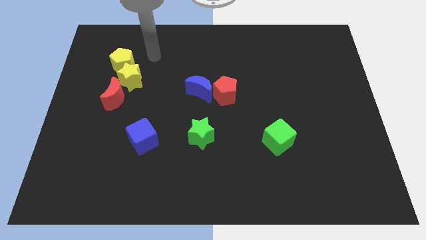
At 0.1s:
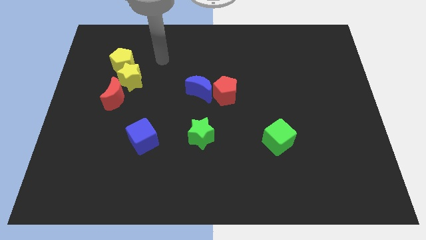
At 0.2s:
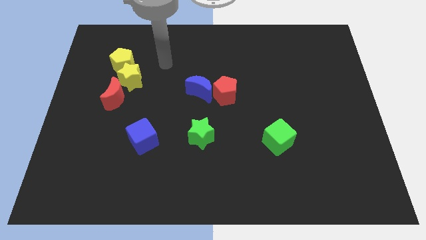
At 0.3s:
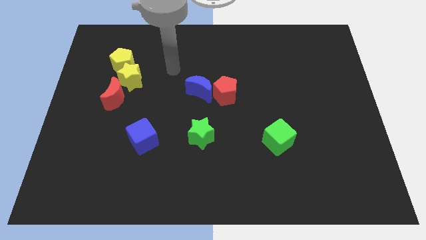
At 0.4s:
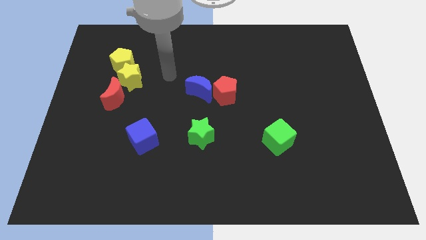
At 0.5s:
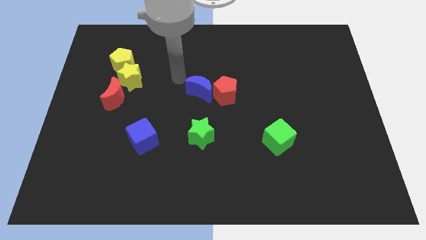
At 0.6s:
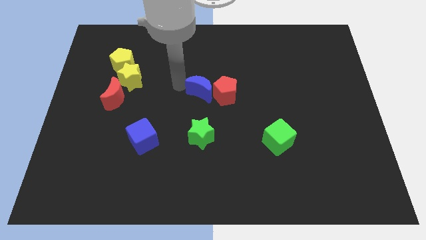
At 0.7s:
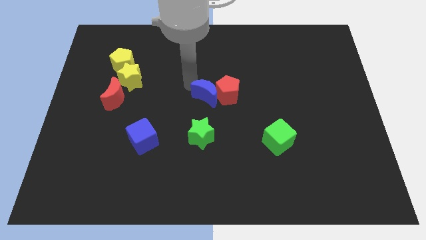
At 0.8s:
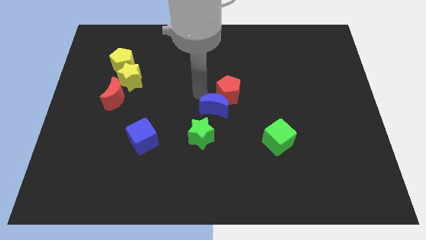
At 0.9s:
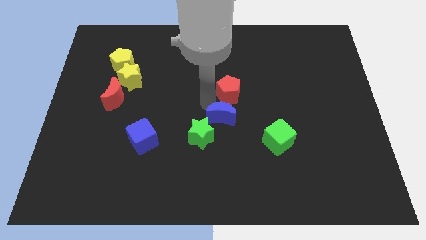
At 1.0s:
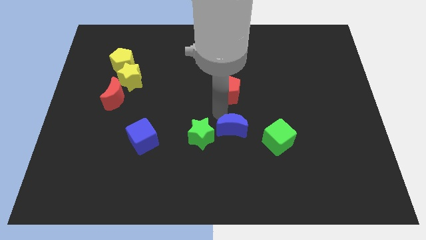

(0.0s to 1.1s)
separate the red pentagon from the blue moon

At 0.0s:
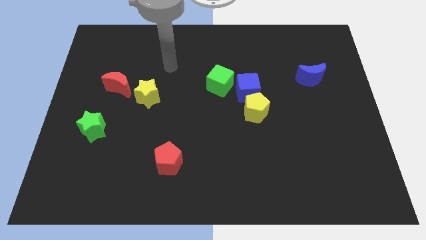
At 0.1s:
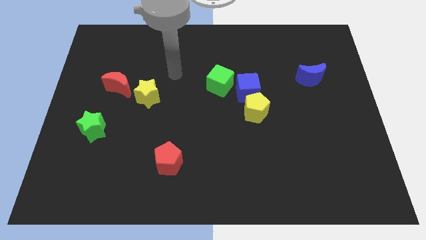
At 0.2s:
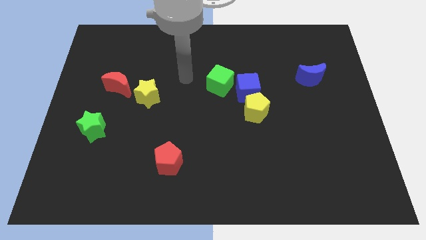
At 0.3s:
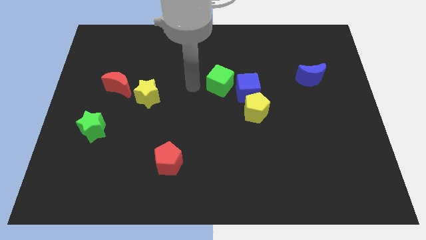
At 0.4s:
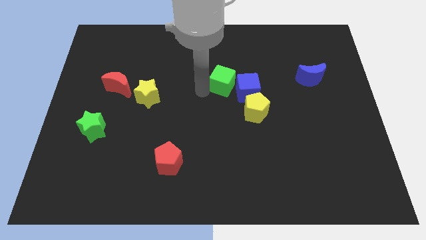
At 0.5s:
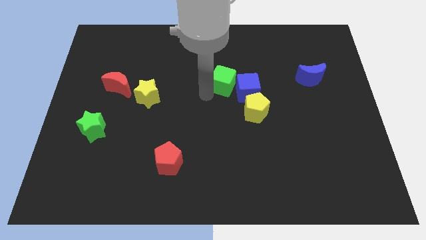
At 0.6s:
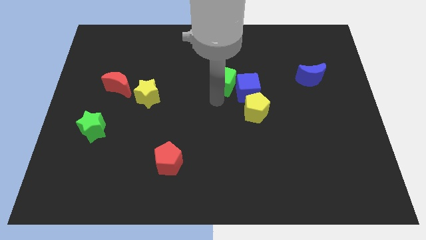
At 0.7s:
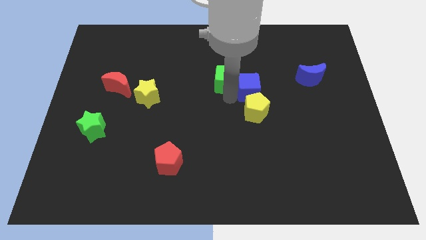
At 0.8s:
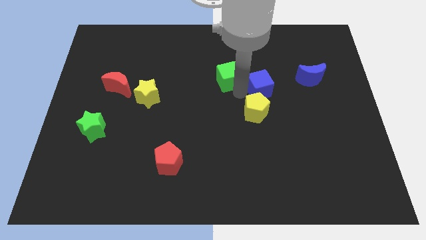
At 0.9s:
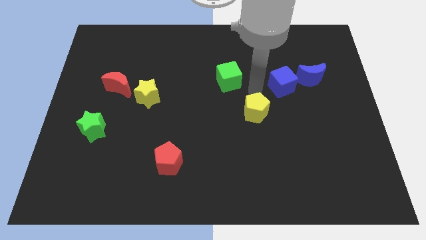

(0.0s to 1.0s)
pull the yellow pentagon apart from the blue cube

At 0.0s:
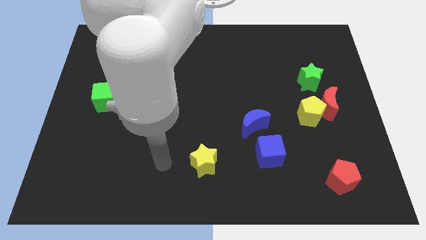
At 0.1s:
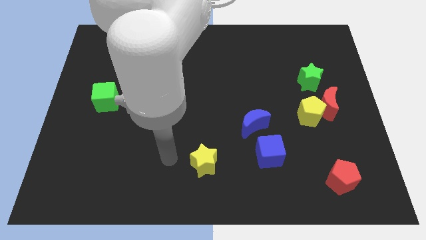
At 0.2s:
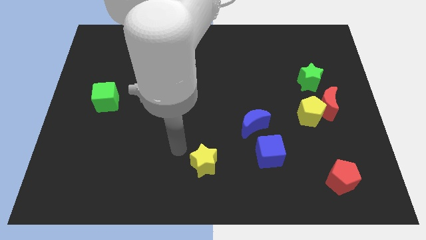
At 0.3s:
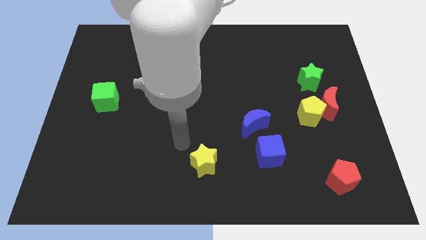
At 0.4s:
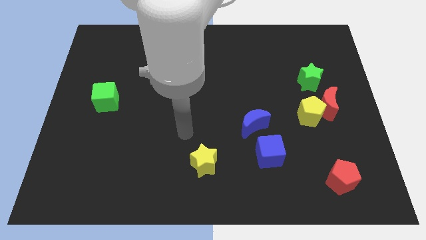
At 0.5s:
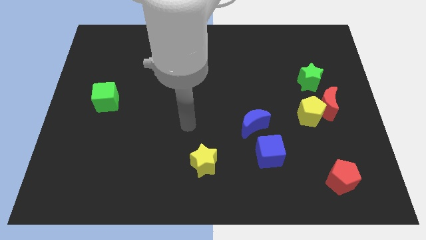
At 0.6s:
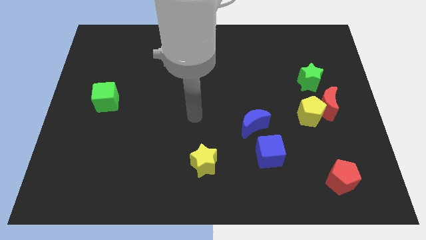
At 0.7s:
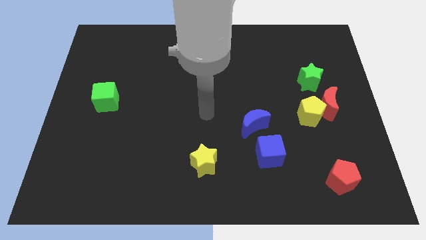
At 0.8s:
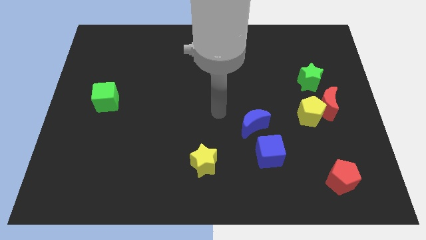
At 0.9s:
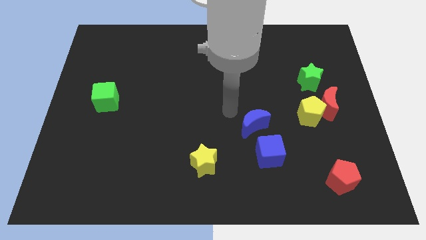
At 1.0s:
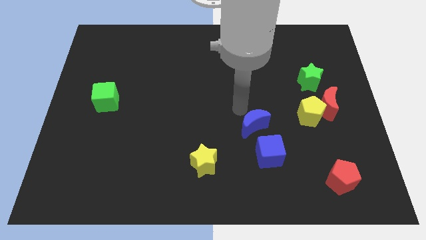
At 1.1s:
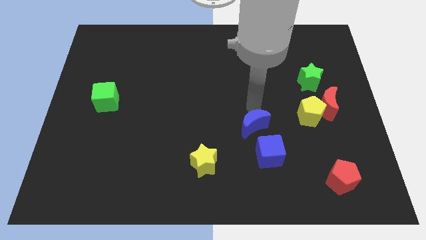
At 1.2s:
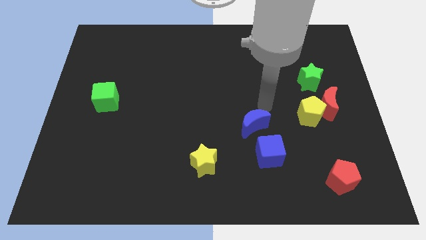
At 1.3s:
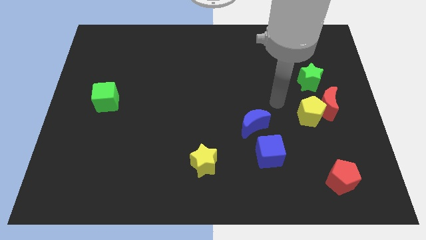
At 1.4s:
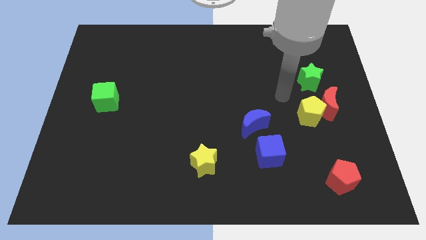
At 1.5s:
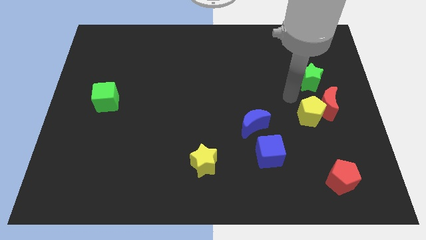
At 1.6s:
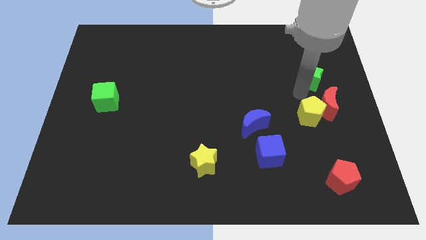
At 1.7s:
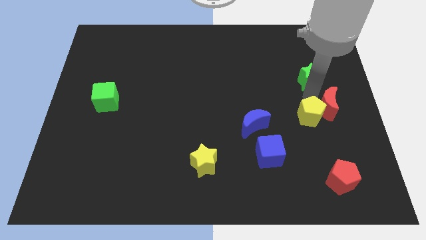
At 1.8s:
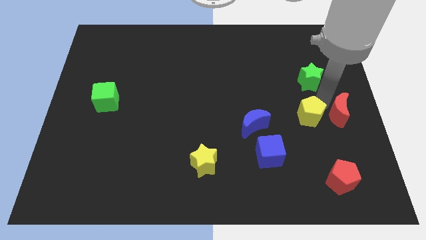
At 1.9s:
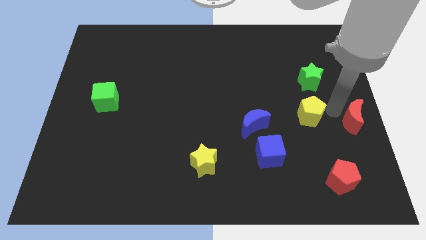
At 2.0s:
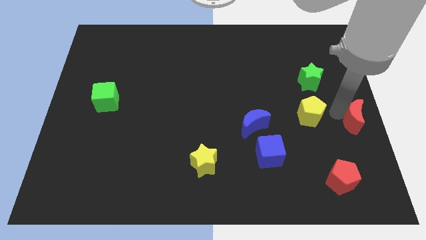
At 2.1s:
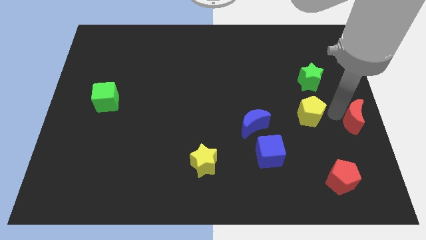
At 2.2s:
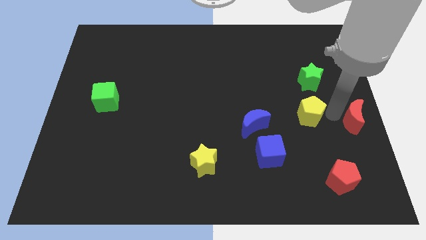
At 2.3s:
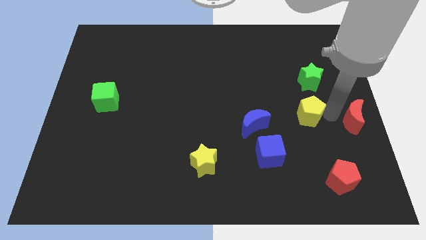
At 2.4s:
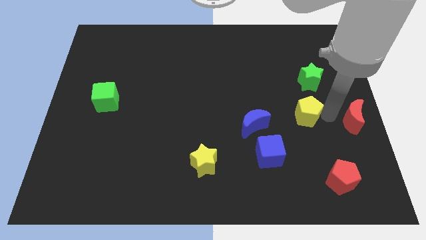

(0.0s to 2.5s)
pull the yellow pentagon apart from the red moon

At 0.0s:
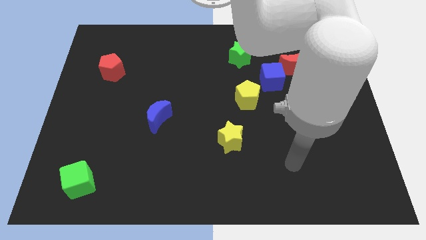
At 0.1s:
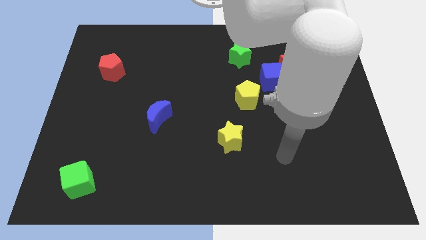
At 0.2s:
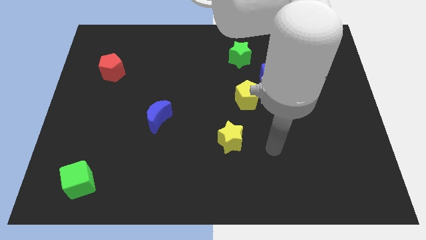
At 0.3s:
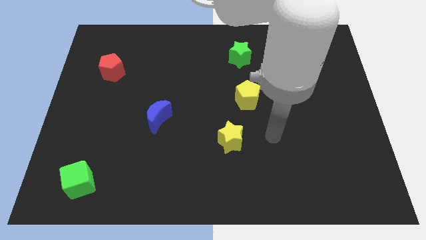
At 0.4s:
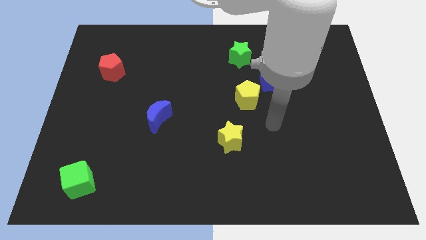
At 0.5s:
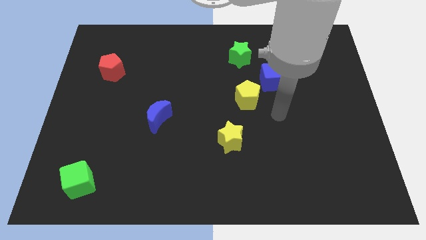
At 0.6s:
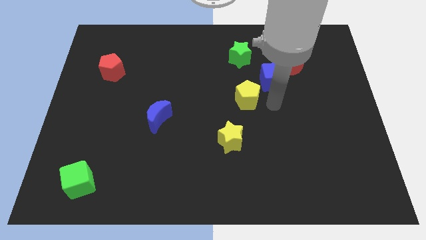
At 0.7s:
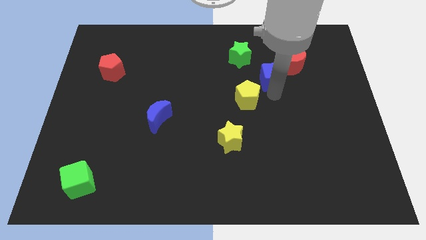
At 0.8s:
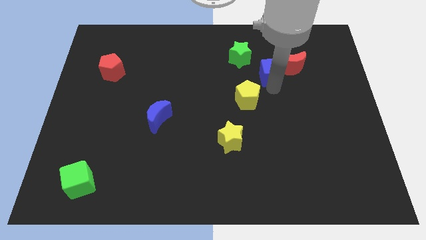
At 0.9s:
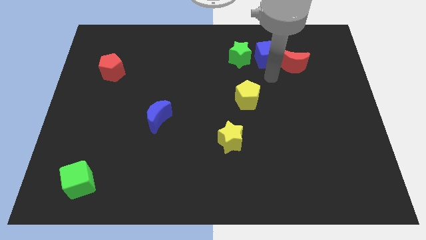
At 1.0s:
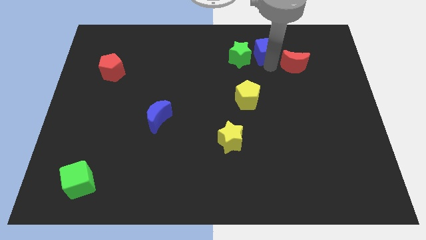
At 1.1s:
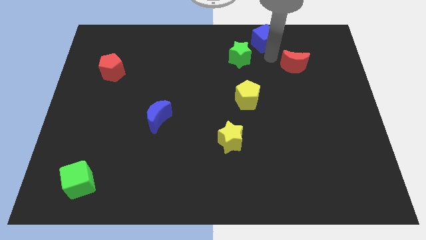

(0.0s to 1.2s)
move the red moon away from the blue cube

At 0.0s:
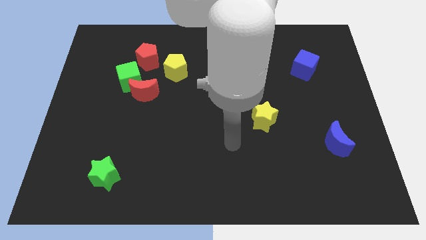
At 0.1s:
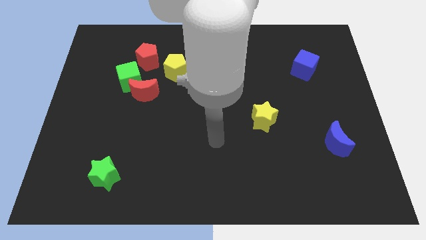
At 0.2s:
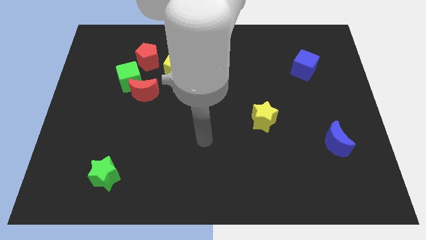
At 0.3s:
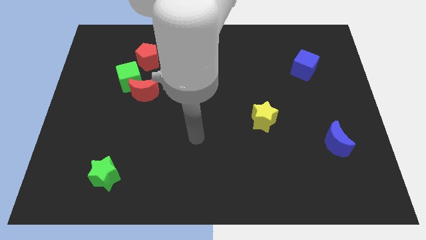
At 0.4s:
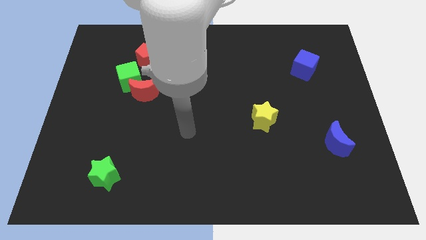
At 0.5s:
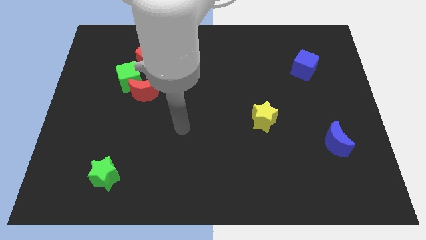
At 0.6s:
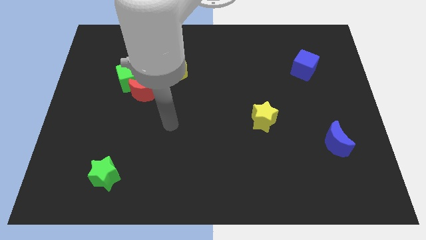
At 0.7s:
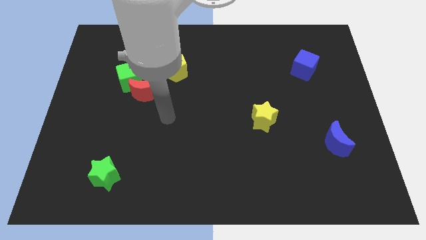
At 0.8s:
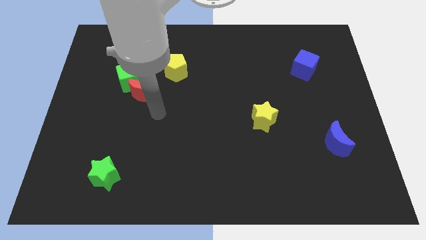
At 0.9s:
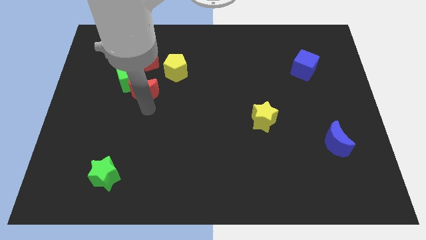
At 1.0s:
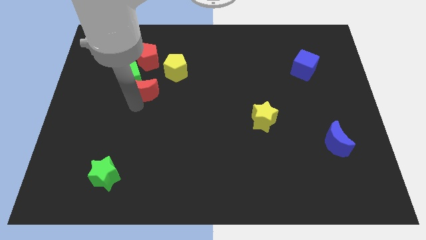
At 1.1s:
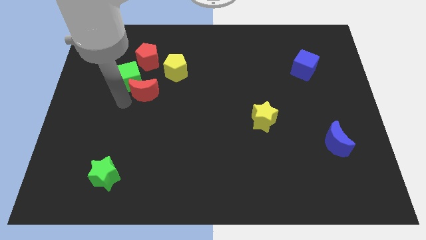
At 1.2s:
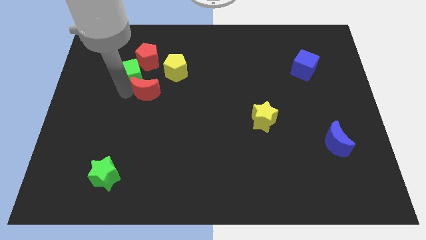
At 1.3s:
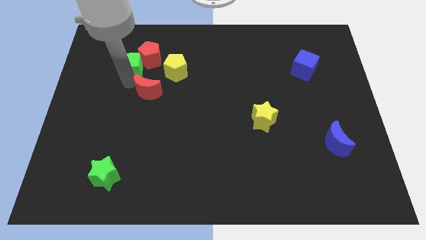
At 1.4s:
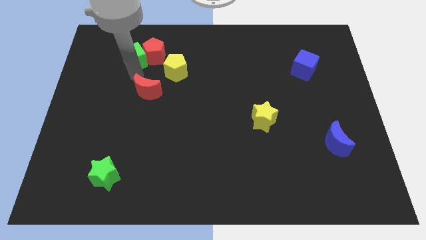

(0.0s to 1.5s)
pull the red moon apart from the green cube

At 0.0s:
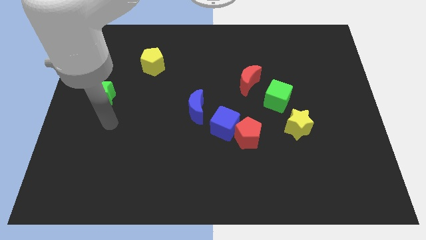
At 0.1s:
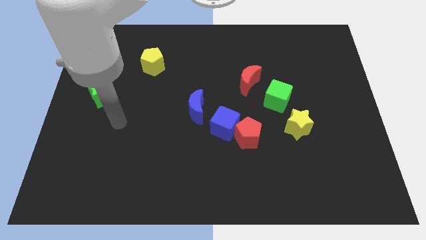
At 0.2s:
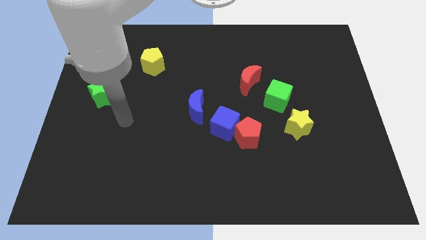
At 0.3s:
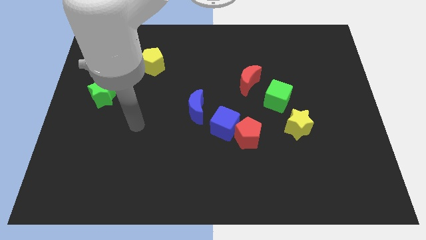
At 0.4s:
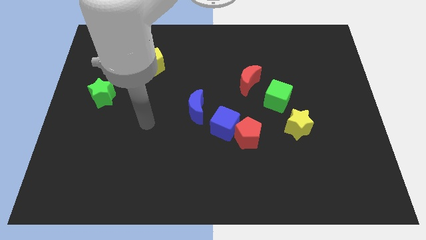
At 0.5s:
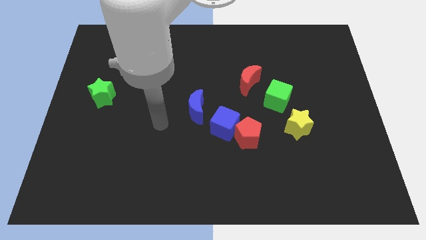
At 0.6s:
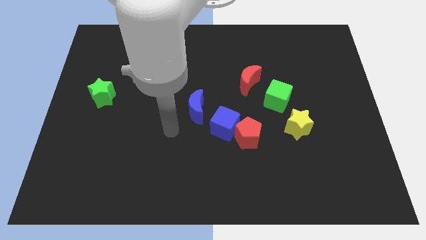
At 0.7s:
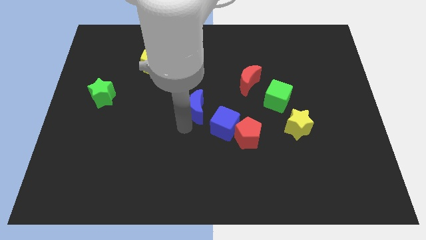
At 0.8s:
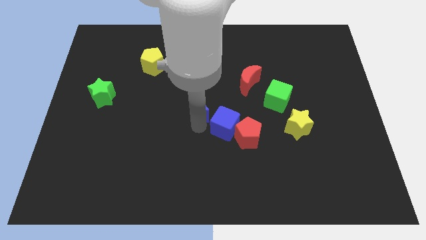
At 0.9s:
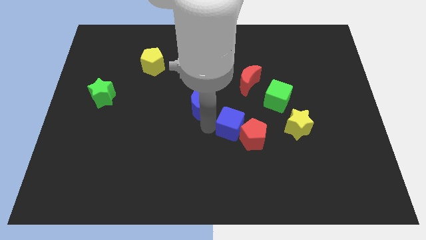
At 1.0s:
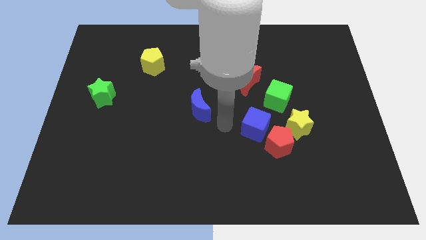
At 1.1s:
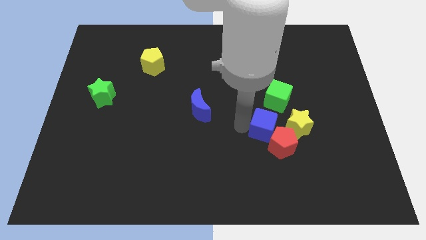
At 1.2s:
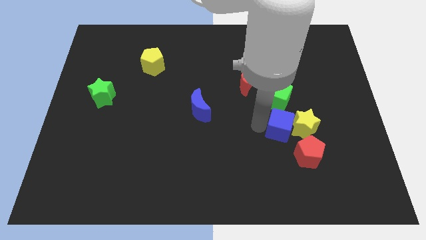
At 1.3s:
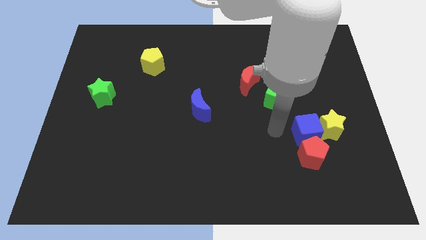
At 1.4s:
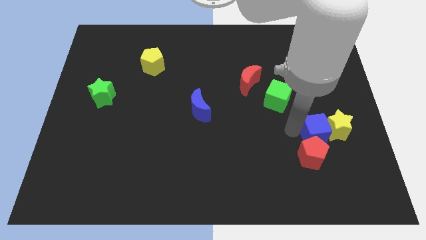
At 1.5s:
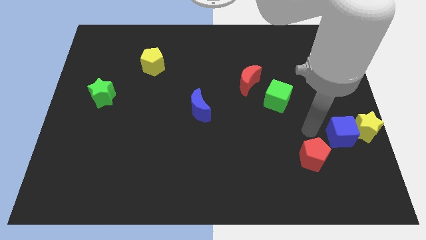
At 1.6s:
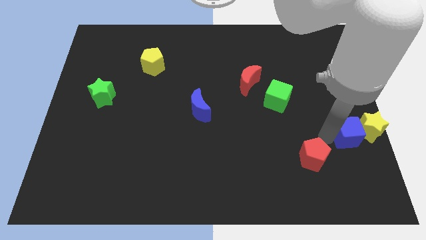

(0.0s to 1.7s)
pull the red pentagon apart from the blue cube

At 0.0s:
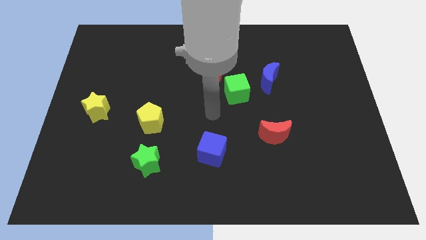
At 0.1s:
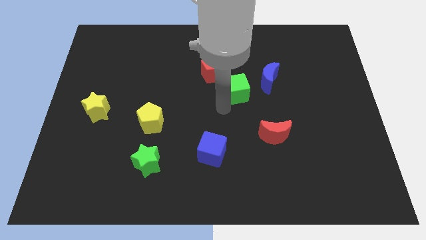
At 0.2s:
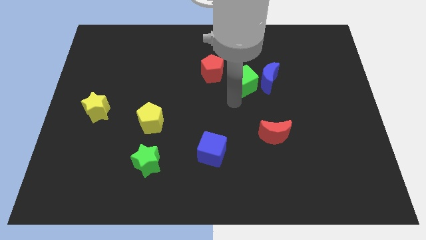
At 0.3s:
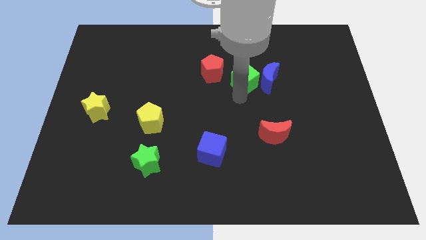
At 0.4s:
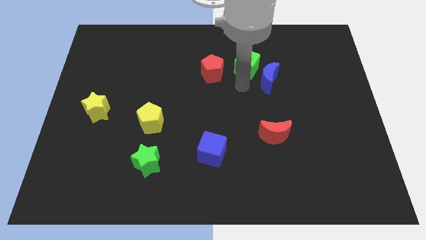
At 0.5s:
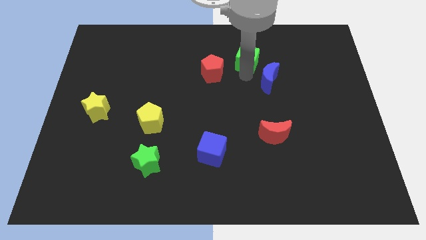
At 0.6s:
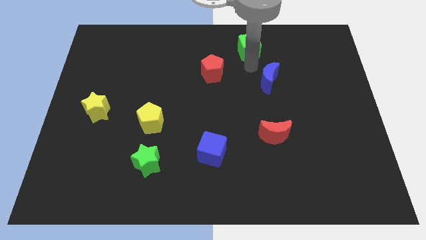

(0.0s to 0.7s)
move the blue moon away from the green cube
